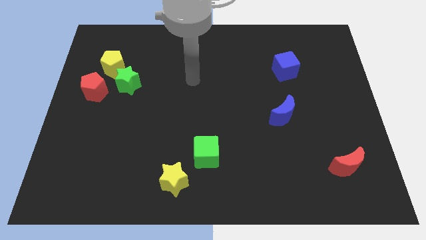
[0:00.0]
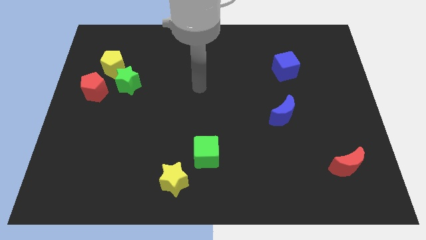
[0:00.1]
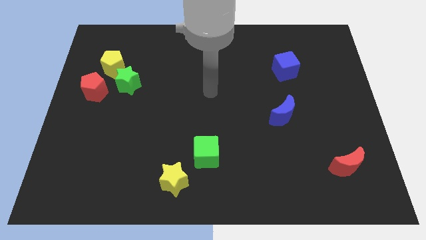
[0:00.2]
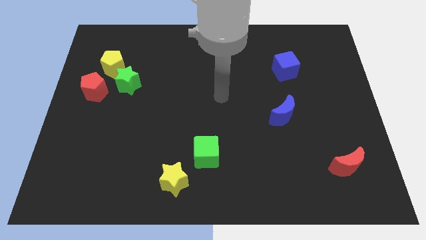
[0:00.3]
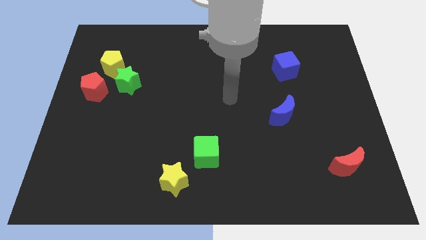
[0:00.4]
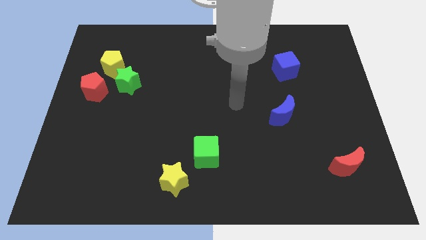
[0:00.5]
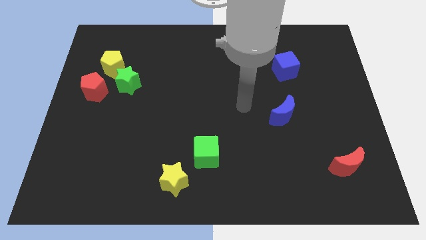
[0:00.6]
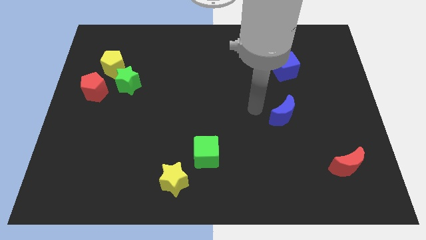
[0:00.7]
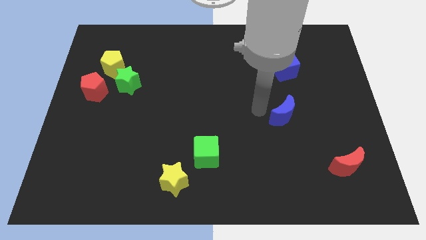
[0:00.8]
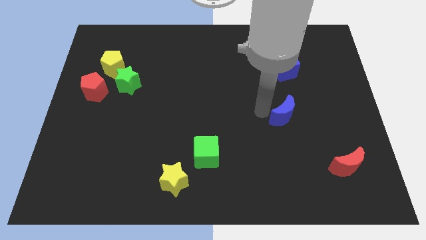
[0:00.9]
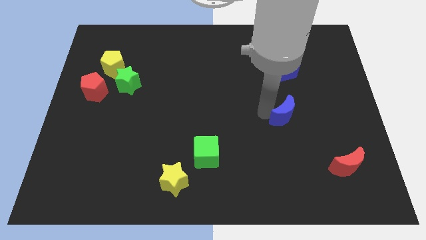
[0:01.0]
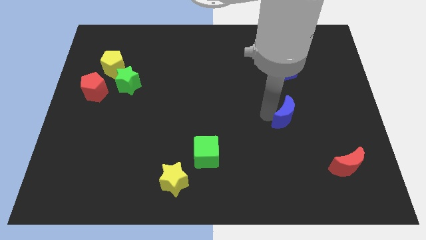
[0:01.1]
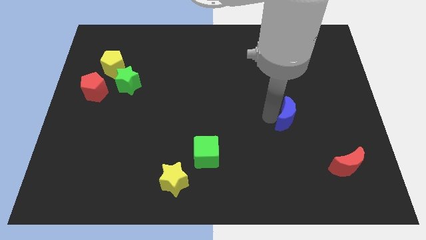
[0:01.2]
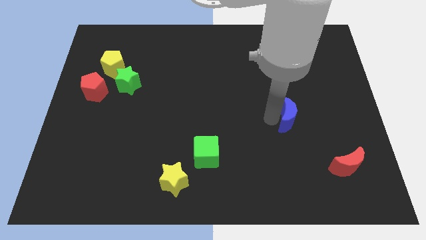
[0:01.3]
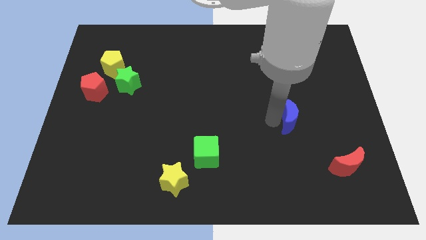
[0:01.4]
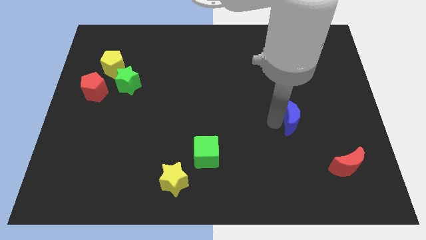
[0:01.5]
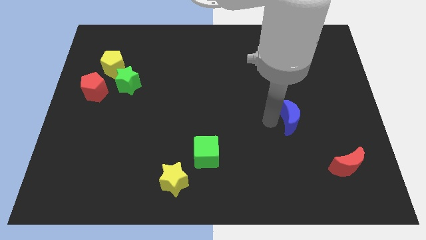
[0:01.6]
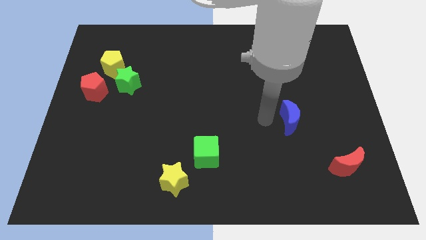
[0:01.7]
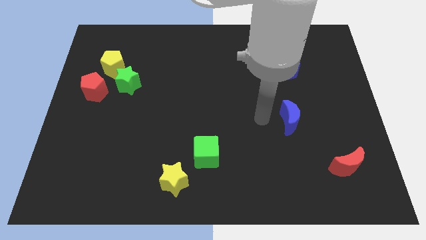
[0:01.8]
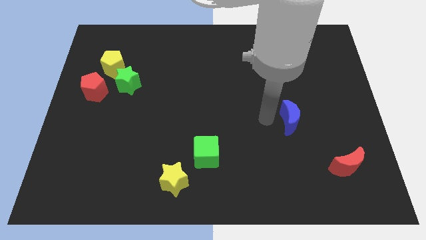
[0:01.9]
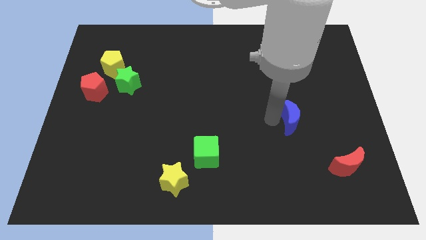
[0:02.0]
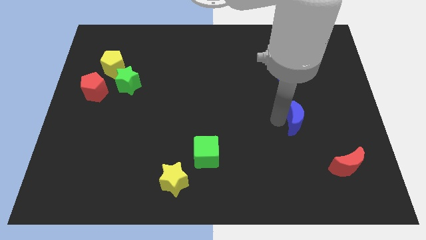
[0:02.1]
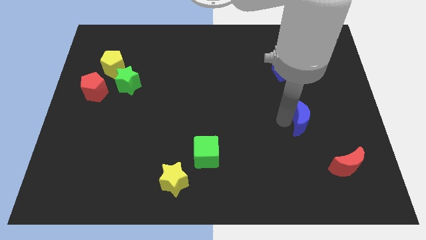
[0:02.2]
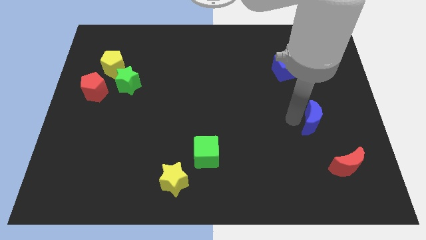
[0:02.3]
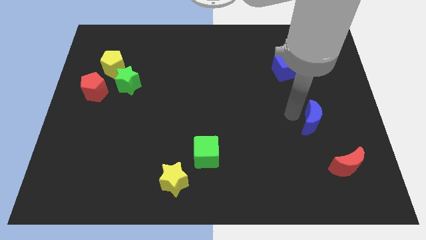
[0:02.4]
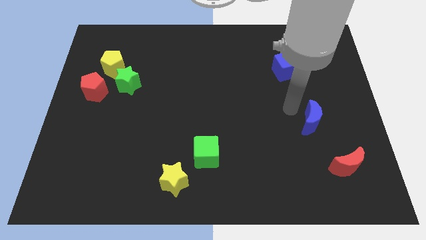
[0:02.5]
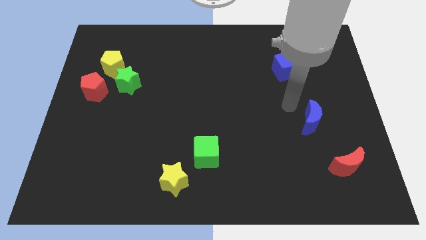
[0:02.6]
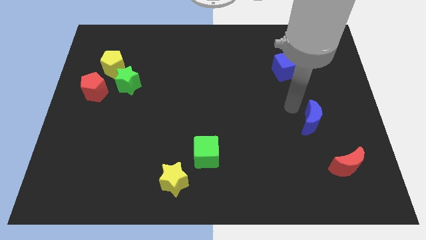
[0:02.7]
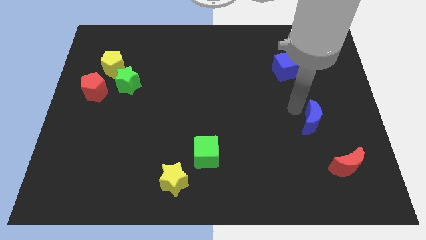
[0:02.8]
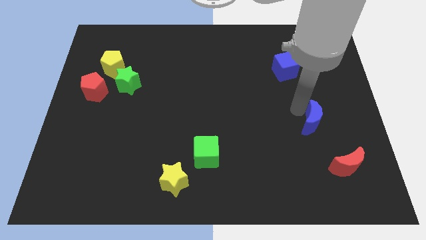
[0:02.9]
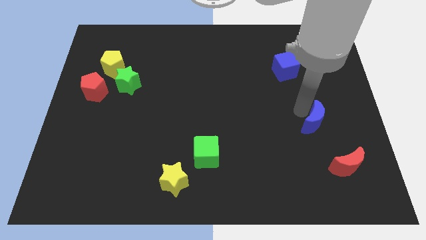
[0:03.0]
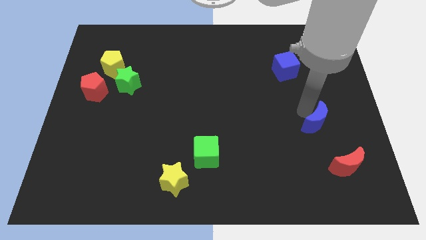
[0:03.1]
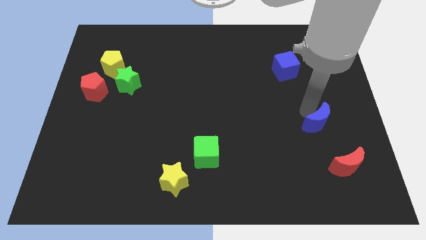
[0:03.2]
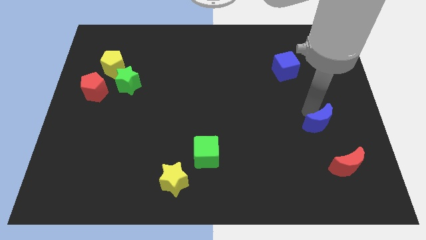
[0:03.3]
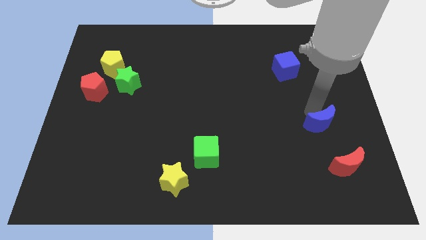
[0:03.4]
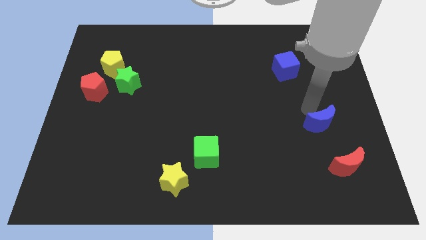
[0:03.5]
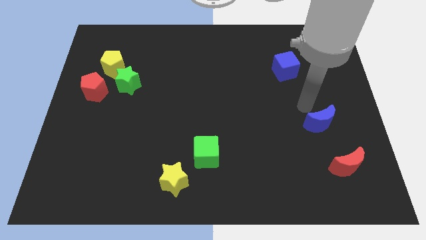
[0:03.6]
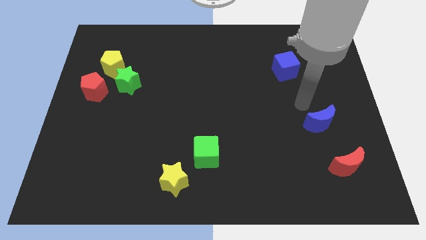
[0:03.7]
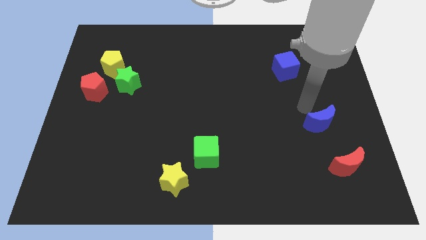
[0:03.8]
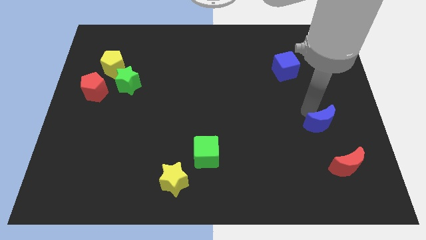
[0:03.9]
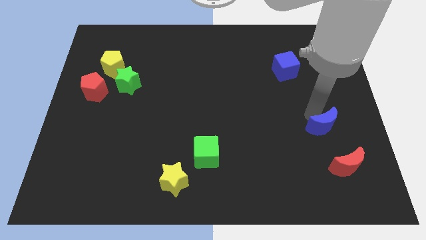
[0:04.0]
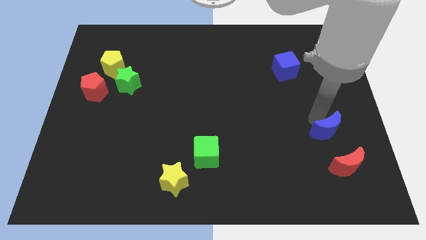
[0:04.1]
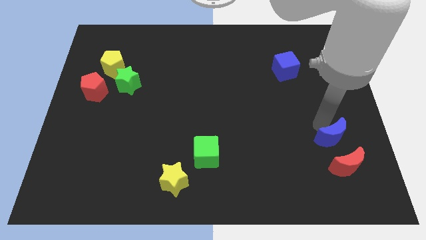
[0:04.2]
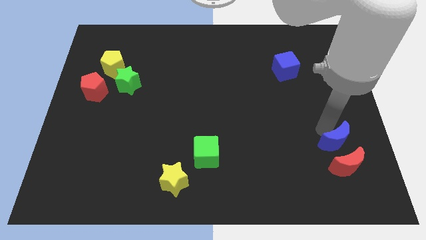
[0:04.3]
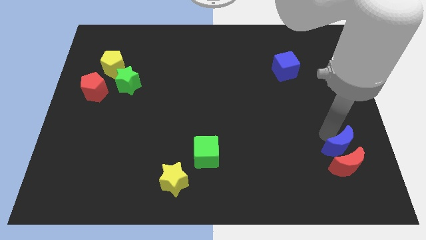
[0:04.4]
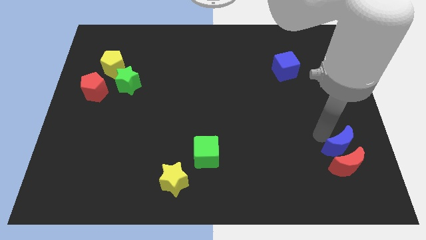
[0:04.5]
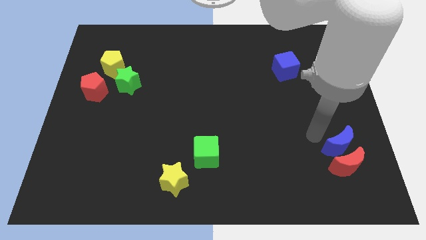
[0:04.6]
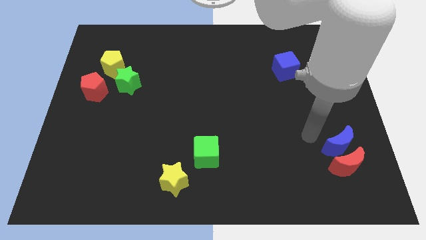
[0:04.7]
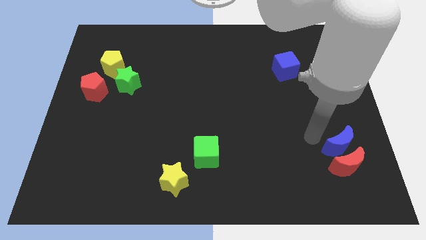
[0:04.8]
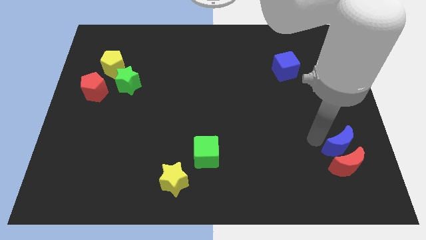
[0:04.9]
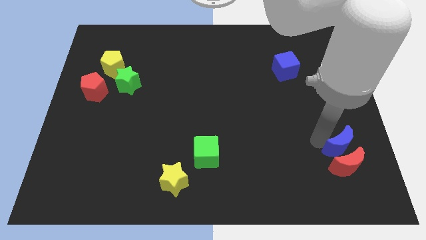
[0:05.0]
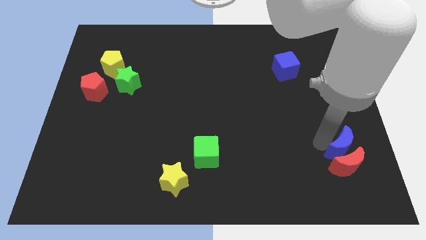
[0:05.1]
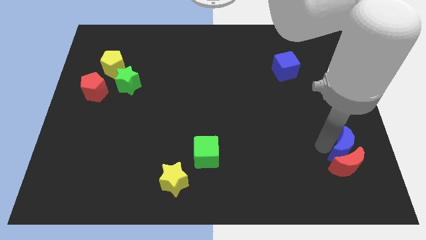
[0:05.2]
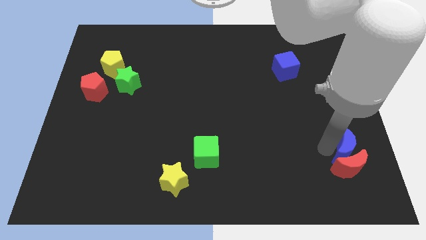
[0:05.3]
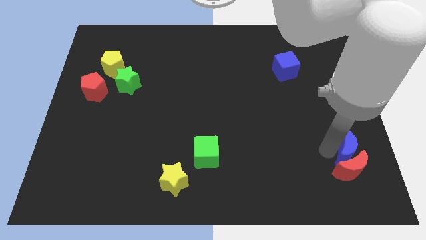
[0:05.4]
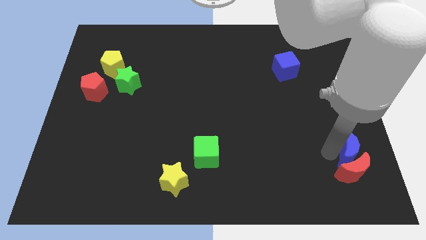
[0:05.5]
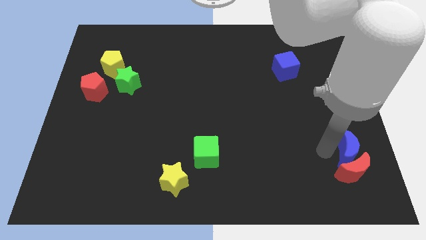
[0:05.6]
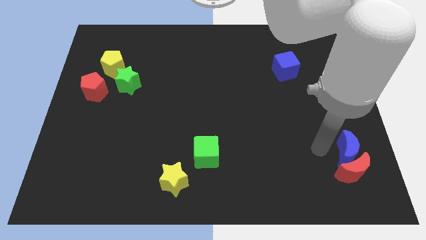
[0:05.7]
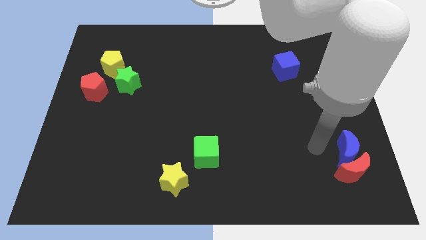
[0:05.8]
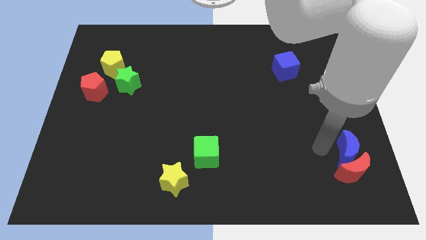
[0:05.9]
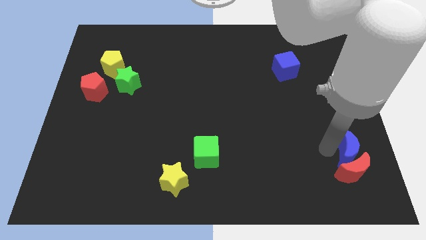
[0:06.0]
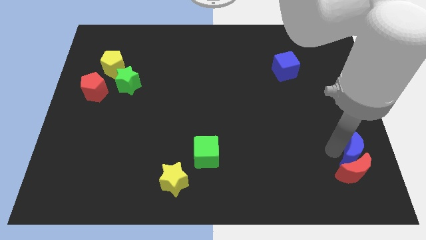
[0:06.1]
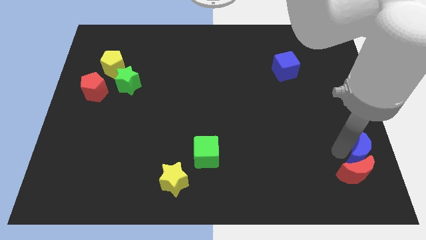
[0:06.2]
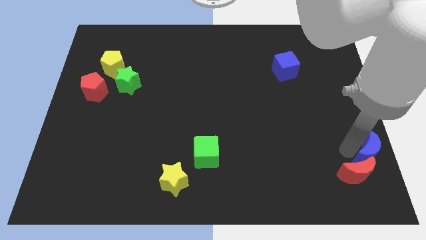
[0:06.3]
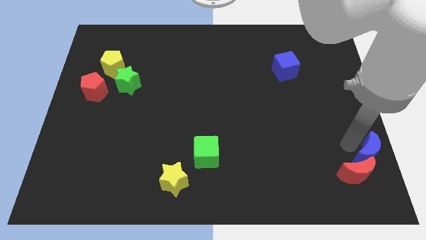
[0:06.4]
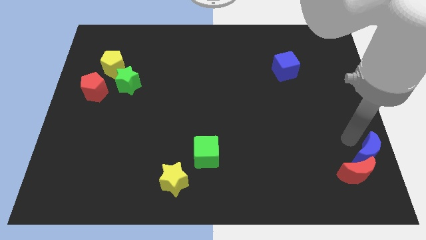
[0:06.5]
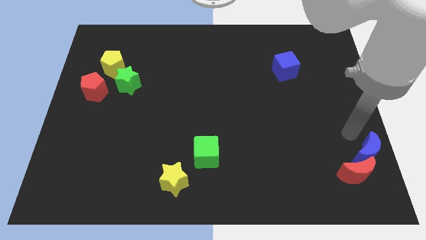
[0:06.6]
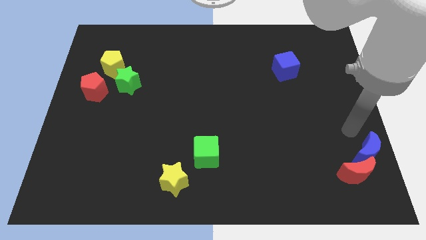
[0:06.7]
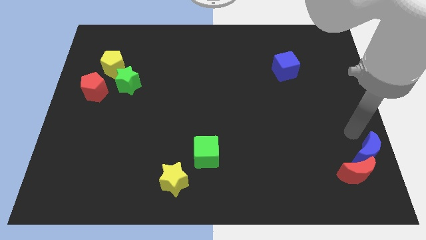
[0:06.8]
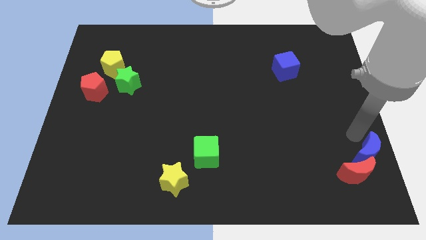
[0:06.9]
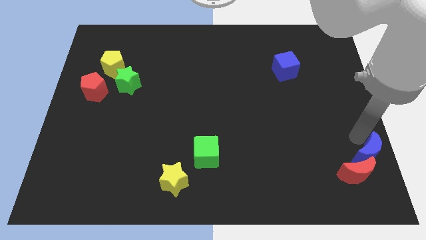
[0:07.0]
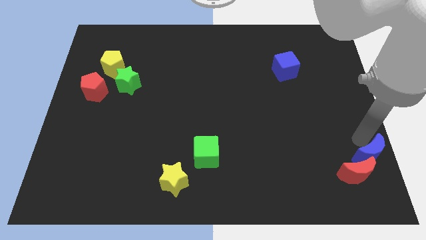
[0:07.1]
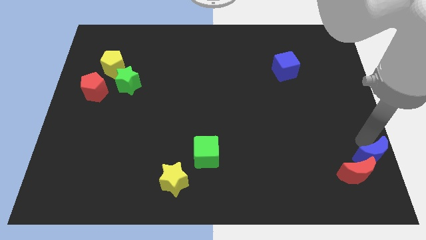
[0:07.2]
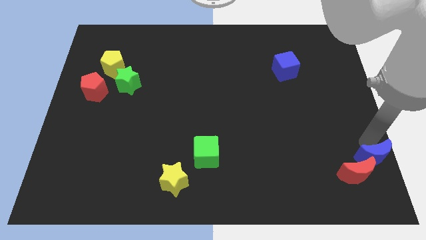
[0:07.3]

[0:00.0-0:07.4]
slide the blue moon to the bottom right of the board
